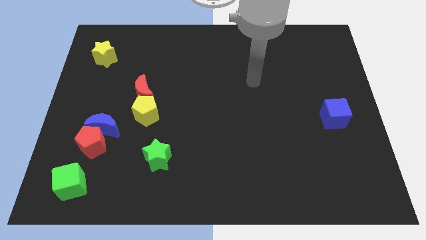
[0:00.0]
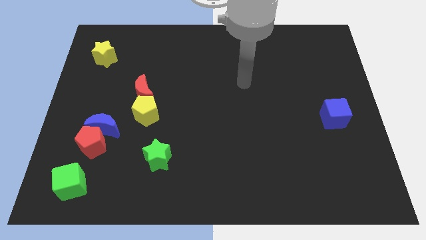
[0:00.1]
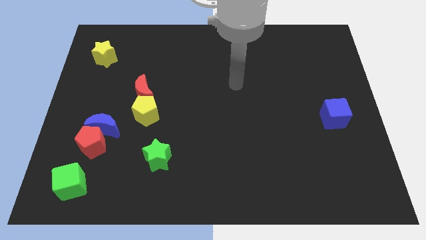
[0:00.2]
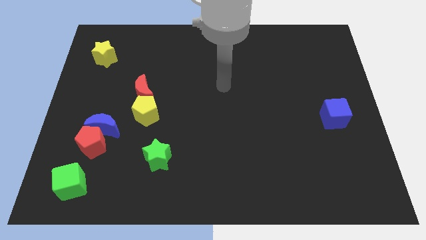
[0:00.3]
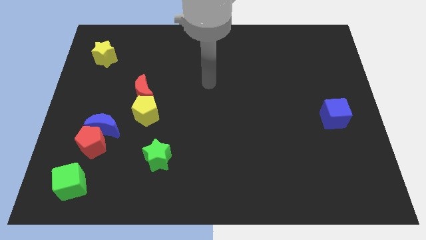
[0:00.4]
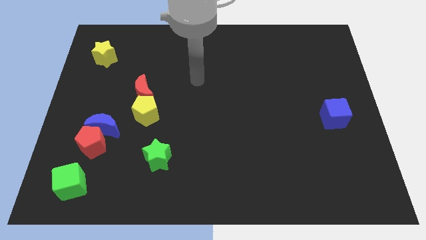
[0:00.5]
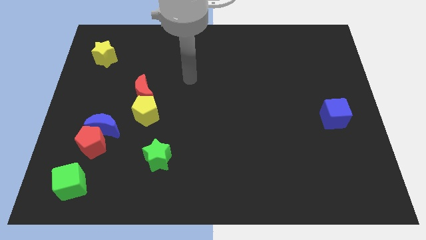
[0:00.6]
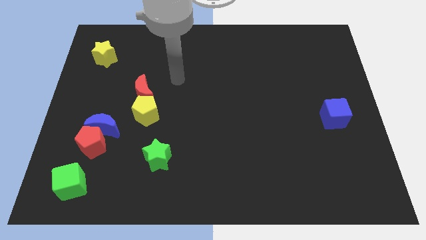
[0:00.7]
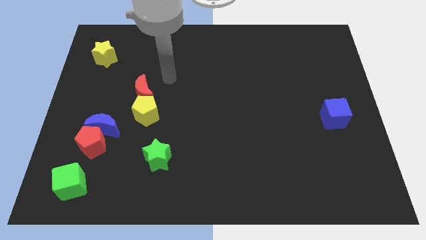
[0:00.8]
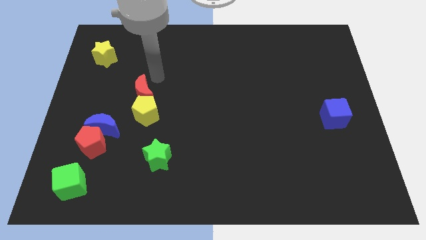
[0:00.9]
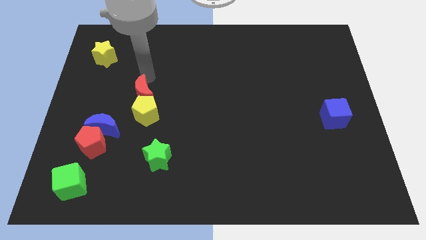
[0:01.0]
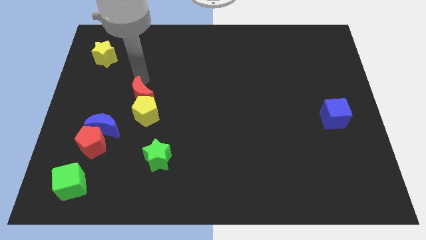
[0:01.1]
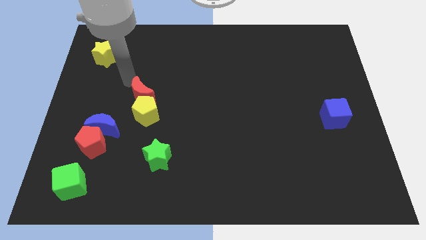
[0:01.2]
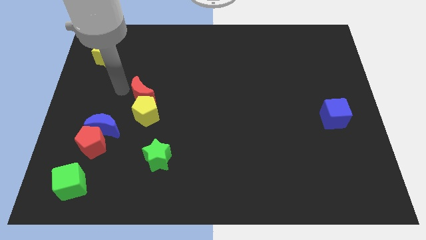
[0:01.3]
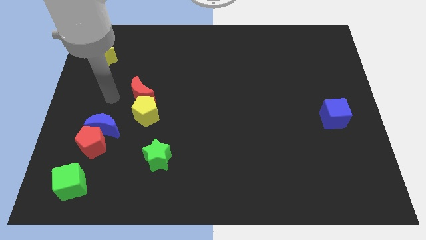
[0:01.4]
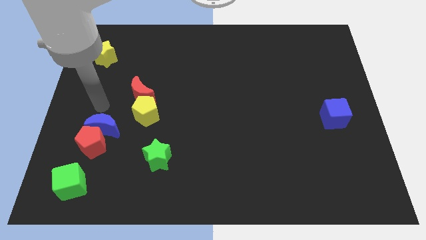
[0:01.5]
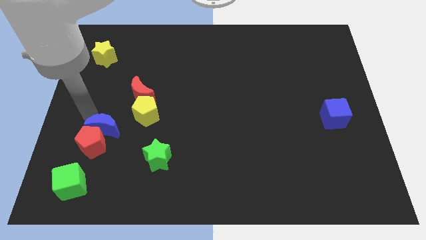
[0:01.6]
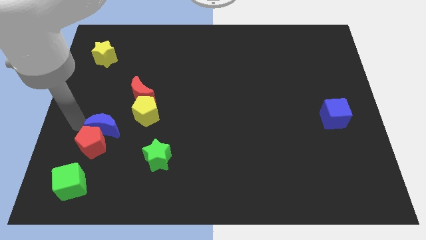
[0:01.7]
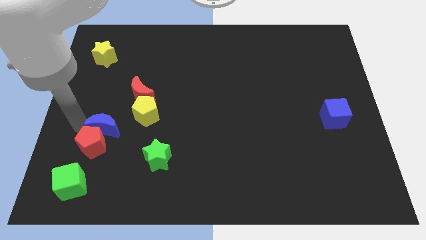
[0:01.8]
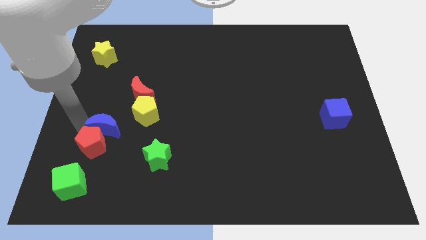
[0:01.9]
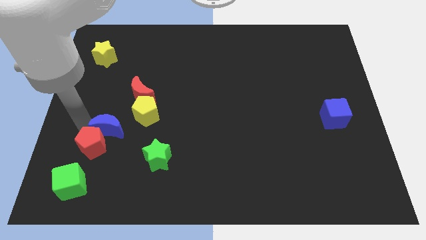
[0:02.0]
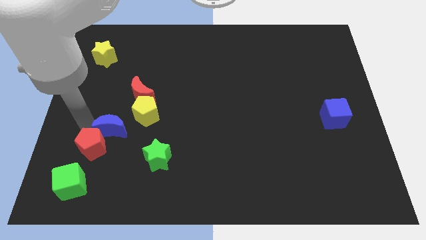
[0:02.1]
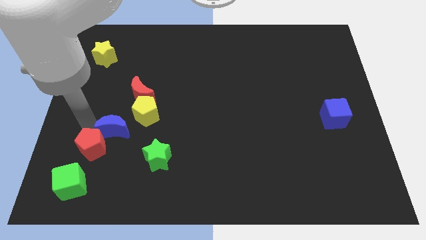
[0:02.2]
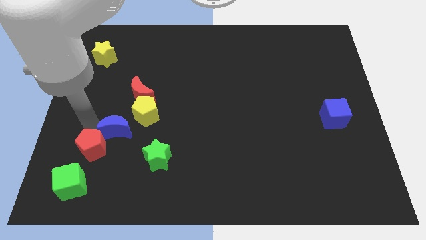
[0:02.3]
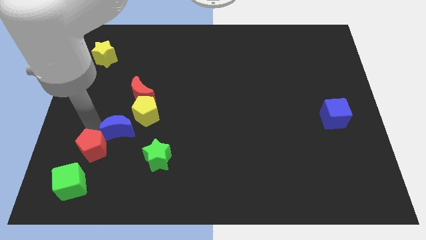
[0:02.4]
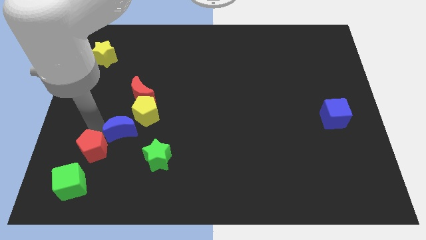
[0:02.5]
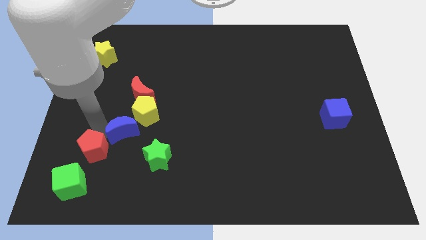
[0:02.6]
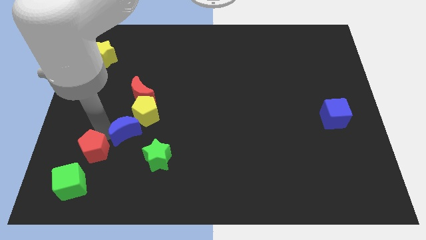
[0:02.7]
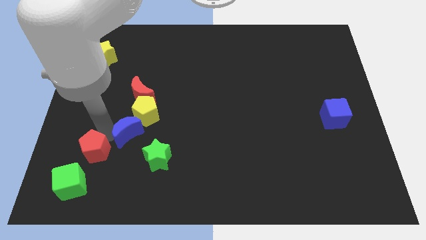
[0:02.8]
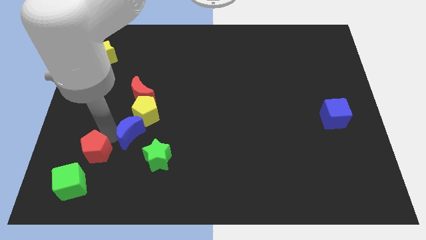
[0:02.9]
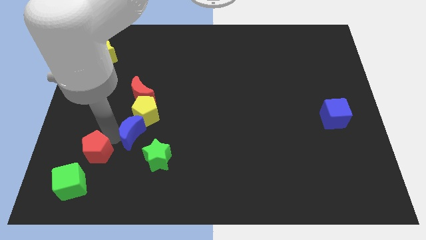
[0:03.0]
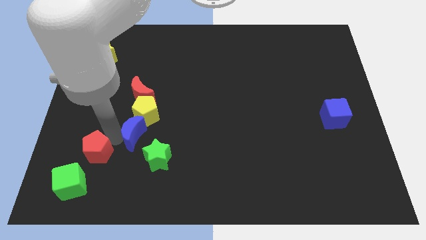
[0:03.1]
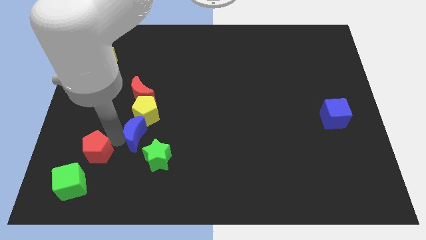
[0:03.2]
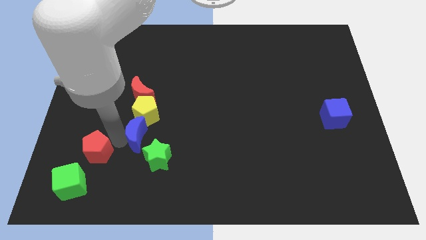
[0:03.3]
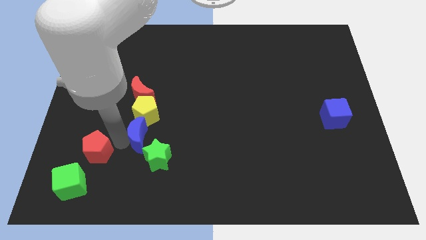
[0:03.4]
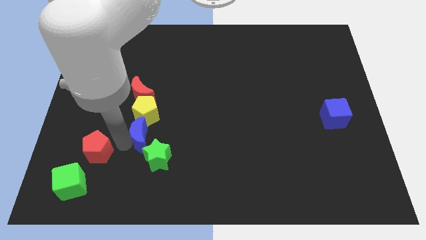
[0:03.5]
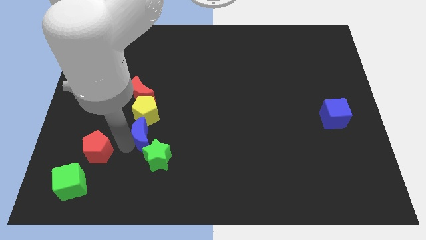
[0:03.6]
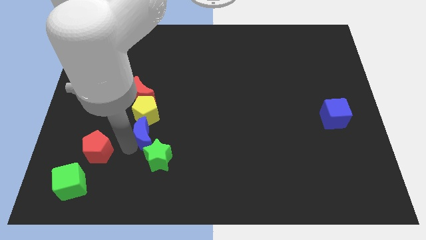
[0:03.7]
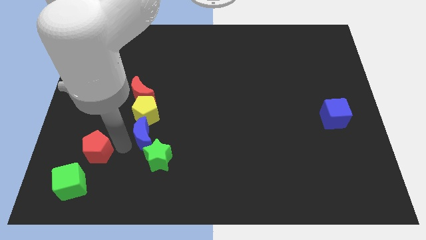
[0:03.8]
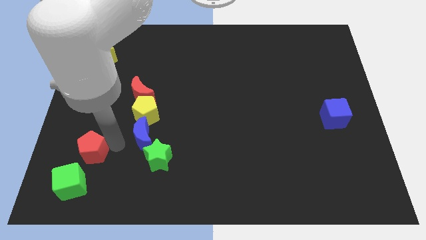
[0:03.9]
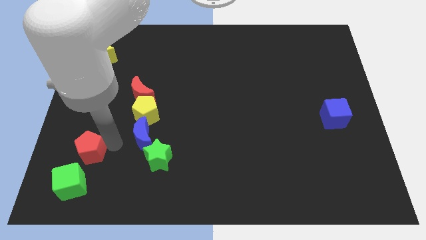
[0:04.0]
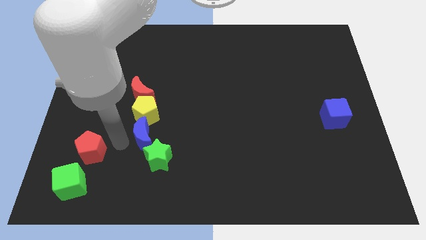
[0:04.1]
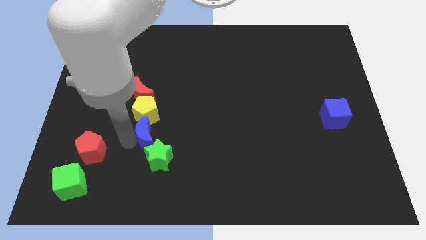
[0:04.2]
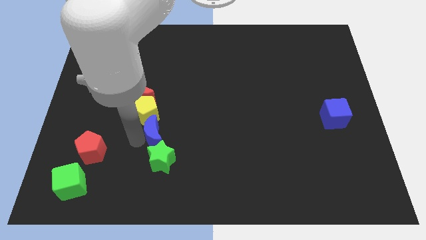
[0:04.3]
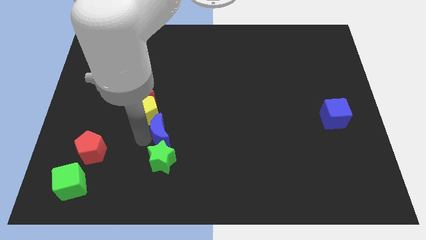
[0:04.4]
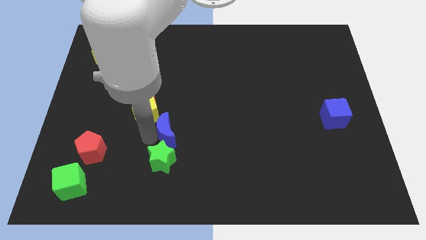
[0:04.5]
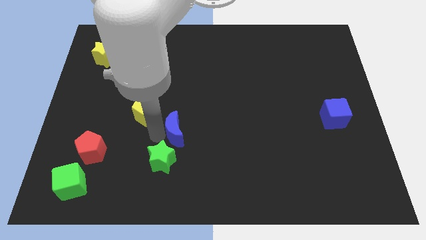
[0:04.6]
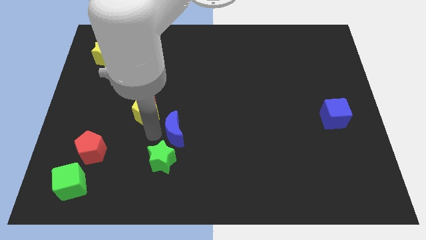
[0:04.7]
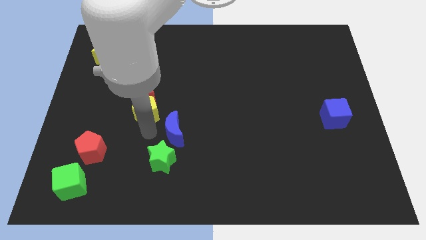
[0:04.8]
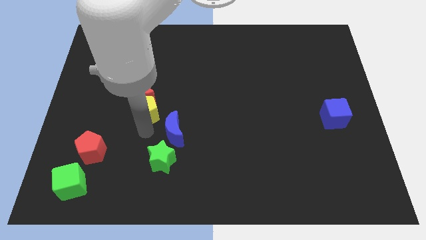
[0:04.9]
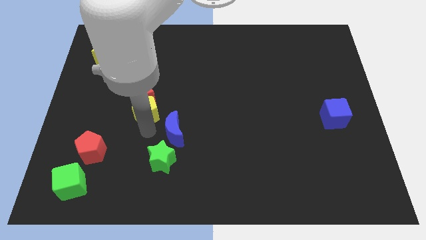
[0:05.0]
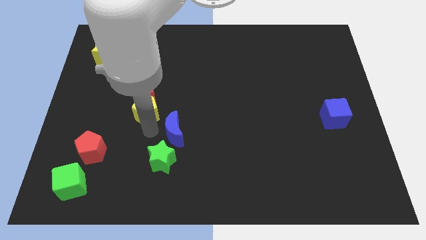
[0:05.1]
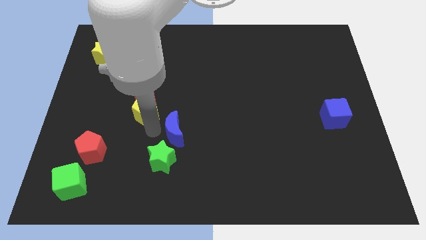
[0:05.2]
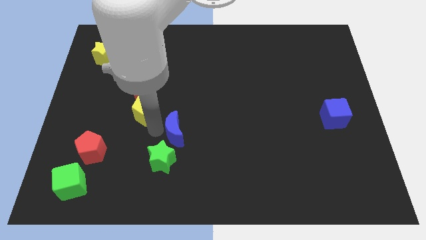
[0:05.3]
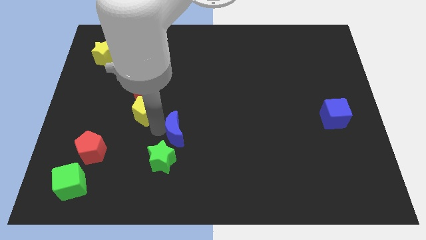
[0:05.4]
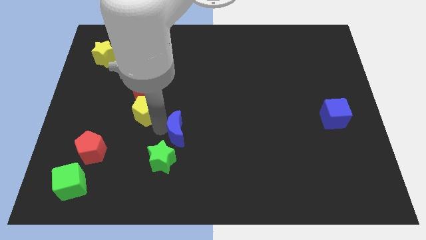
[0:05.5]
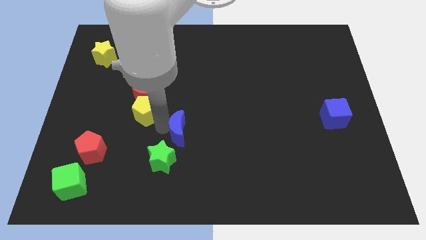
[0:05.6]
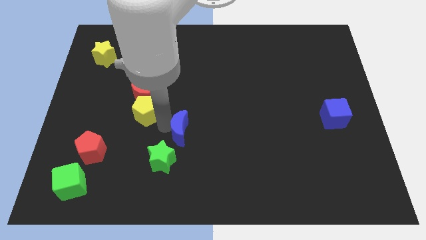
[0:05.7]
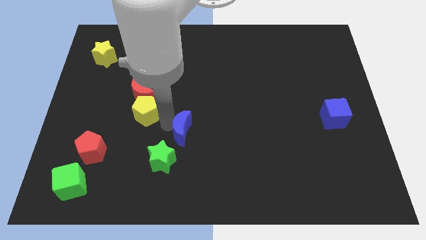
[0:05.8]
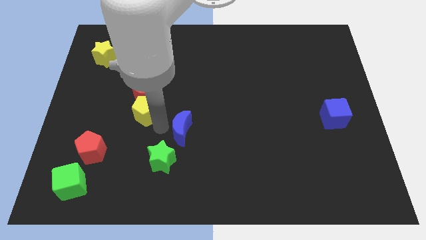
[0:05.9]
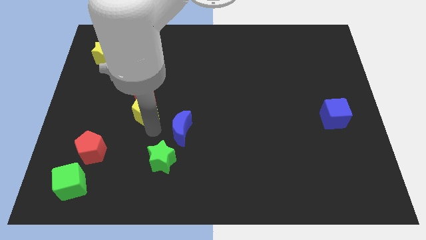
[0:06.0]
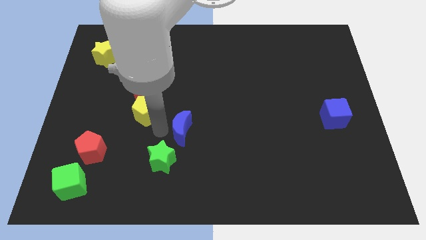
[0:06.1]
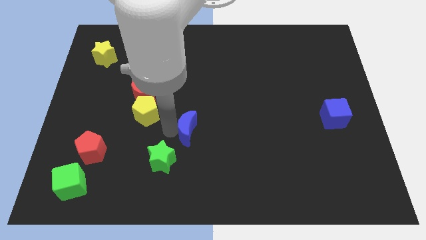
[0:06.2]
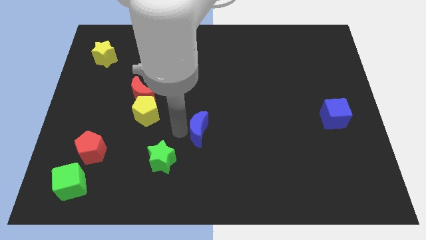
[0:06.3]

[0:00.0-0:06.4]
move the blue moon right

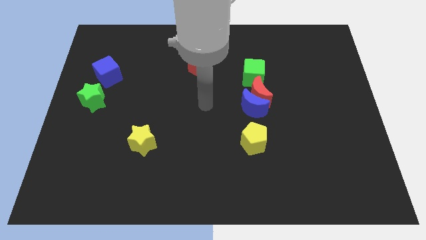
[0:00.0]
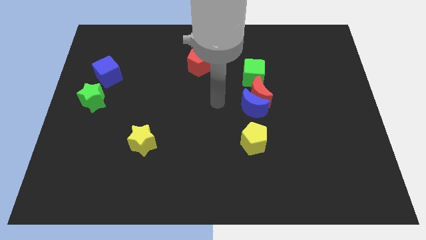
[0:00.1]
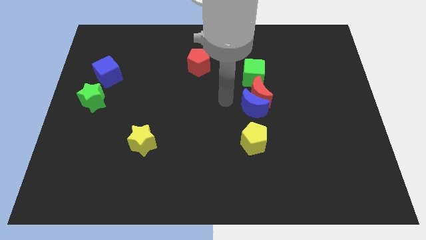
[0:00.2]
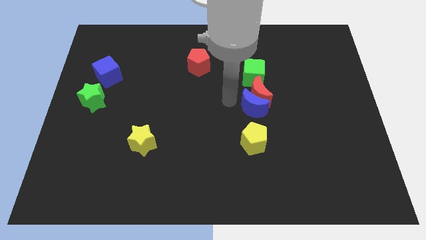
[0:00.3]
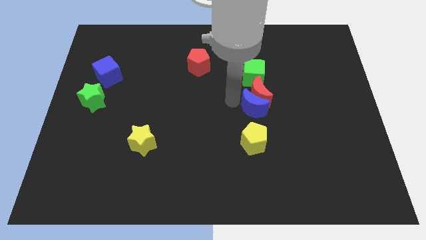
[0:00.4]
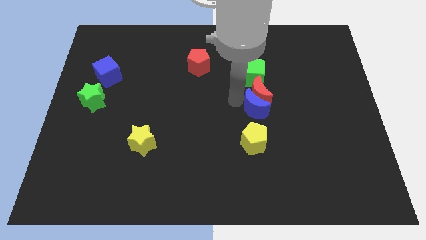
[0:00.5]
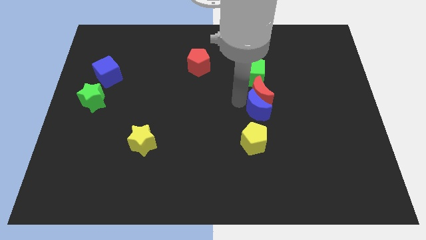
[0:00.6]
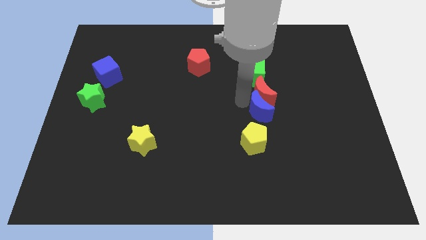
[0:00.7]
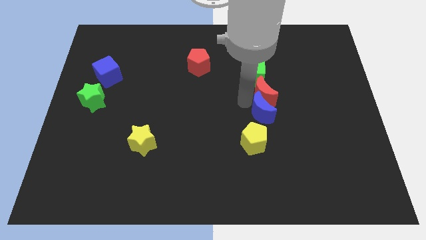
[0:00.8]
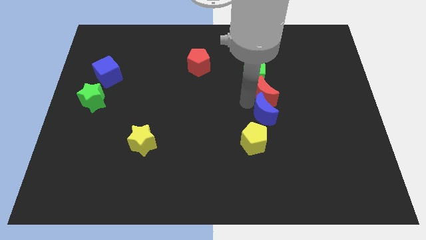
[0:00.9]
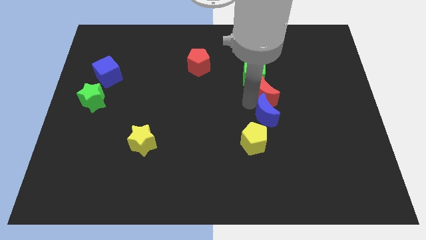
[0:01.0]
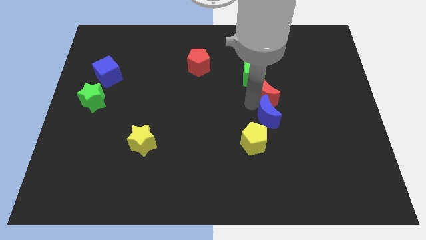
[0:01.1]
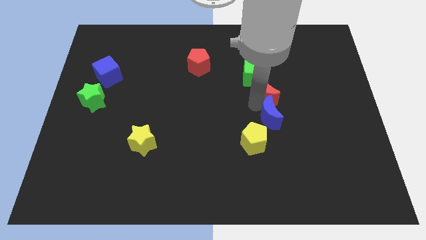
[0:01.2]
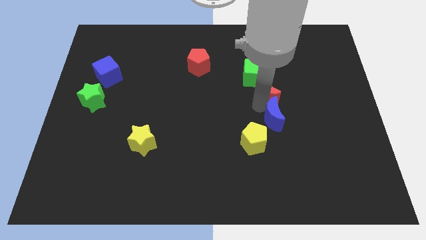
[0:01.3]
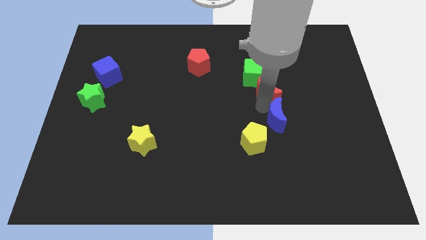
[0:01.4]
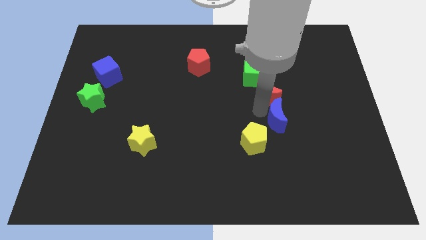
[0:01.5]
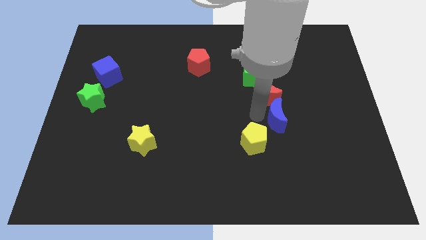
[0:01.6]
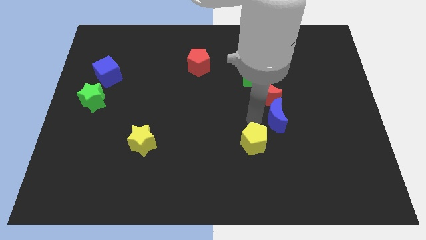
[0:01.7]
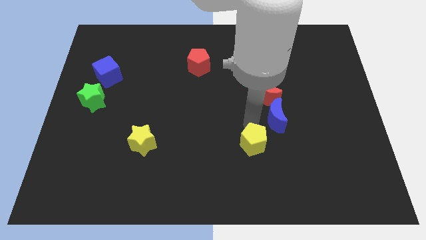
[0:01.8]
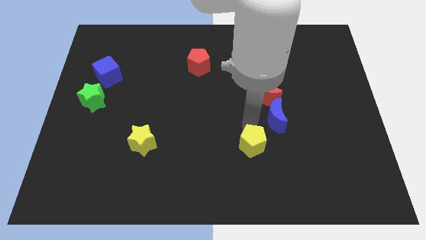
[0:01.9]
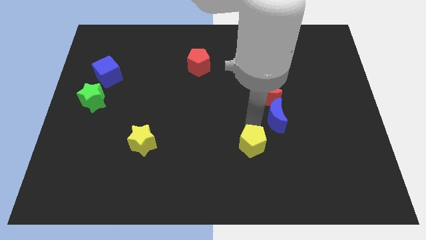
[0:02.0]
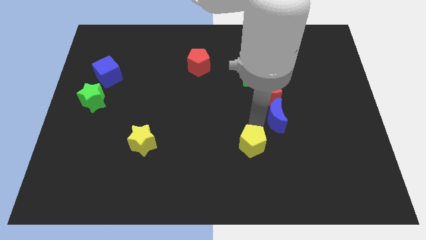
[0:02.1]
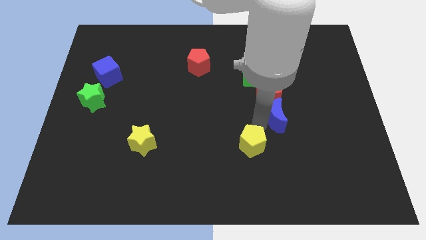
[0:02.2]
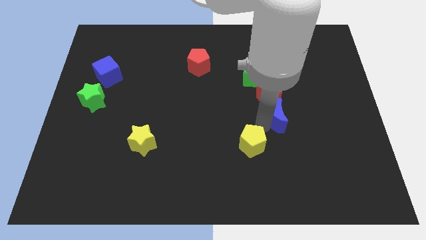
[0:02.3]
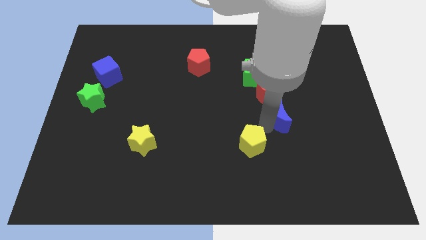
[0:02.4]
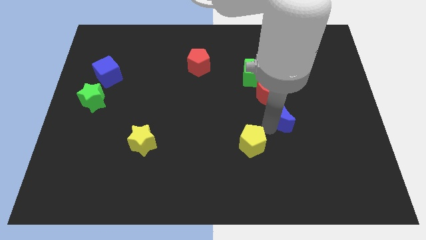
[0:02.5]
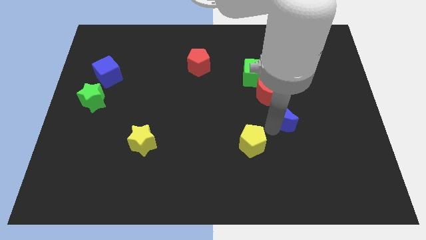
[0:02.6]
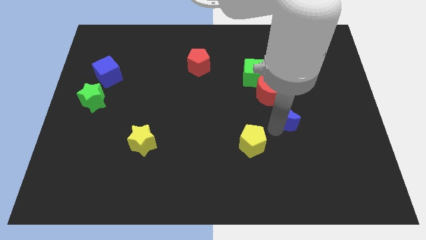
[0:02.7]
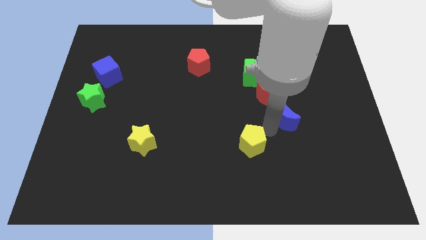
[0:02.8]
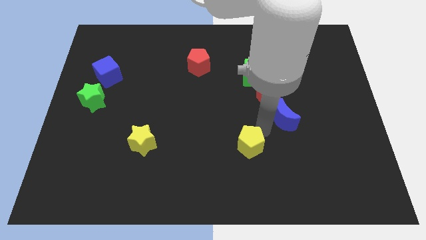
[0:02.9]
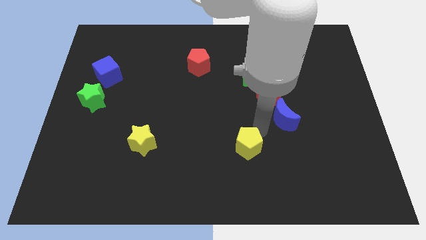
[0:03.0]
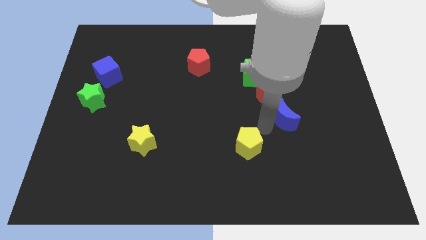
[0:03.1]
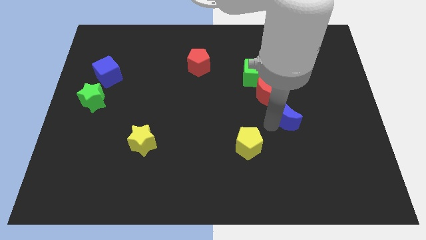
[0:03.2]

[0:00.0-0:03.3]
move the blue moon a little to the right
